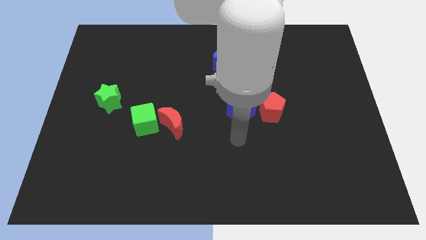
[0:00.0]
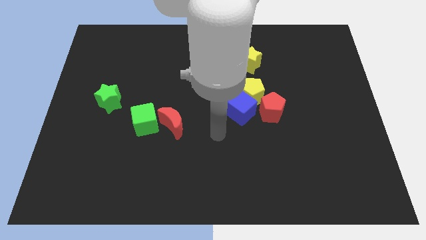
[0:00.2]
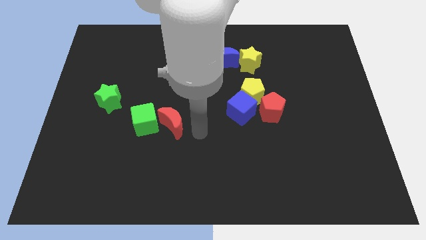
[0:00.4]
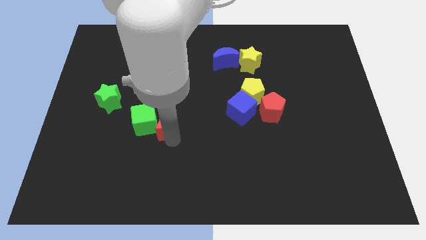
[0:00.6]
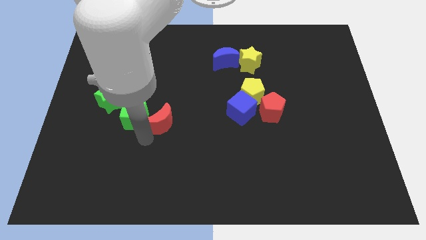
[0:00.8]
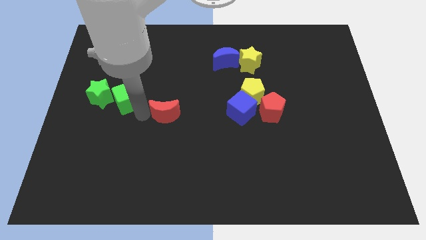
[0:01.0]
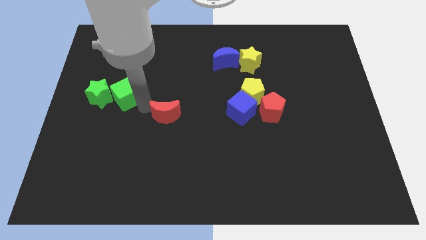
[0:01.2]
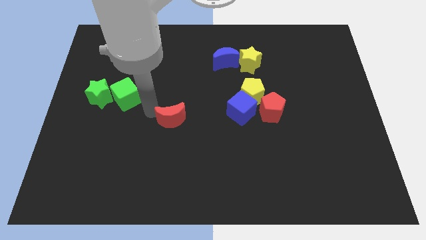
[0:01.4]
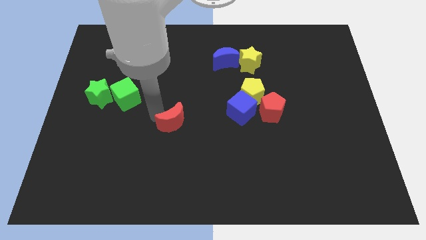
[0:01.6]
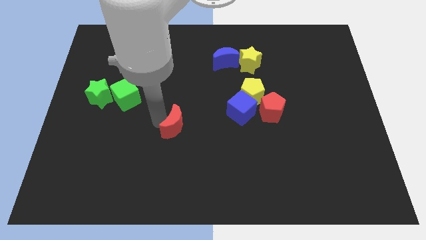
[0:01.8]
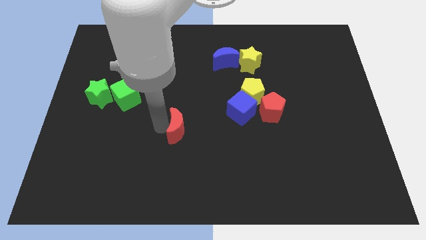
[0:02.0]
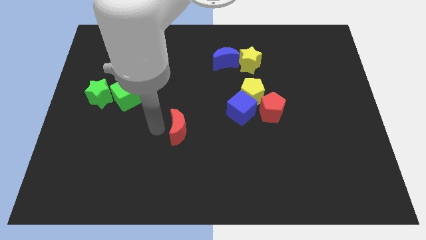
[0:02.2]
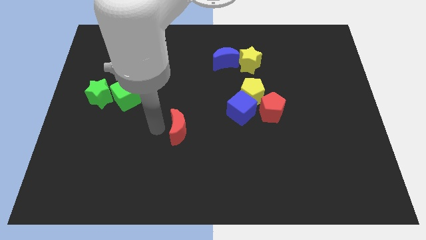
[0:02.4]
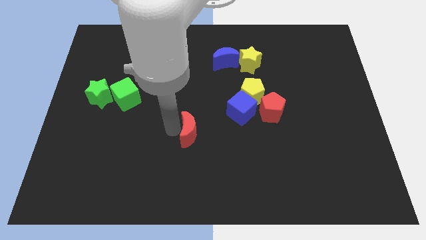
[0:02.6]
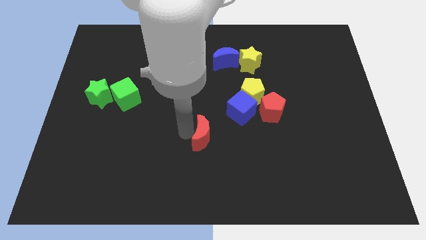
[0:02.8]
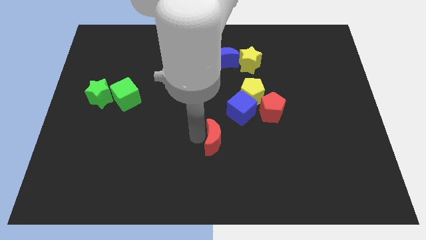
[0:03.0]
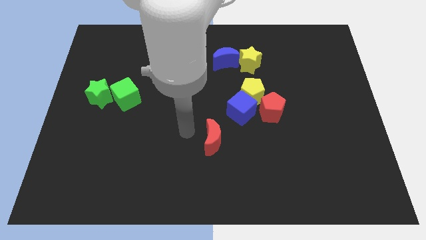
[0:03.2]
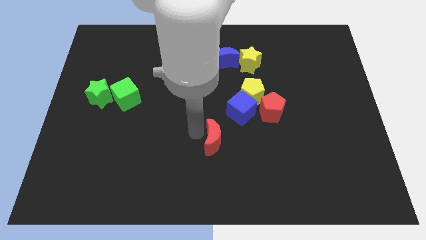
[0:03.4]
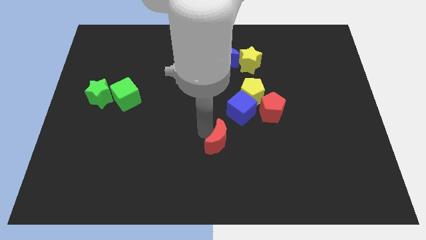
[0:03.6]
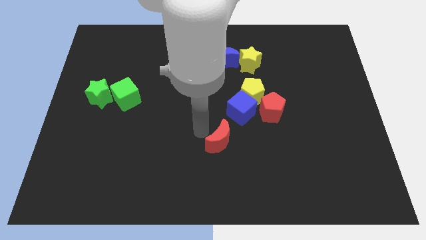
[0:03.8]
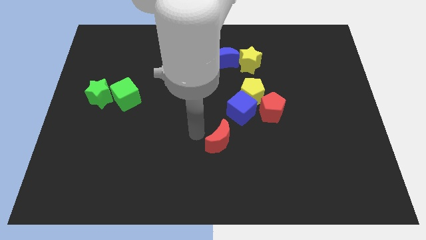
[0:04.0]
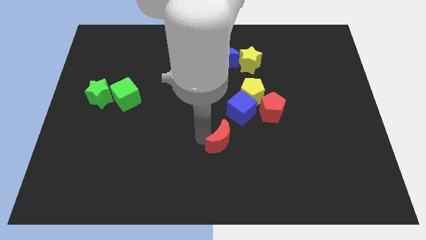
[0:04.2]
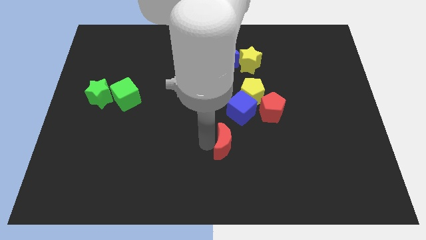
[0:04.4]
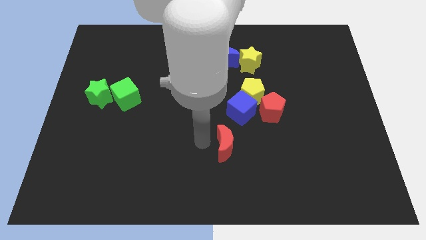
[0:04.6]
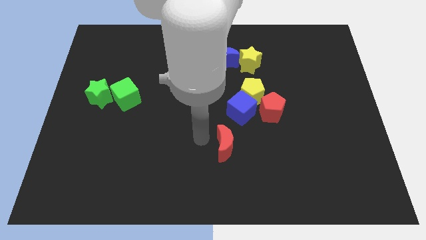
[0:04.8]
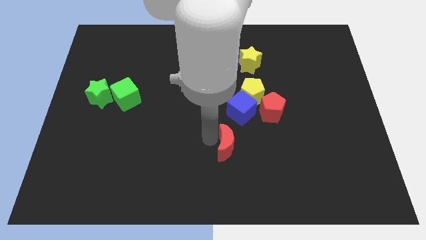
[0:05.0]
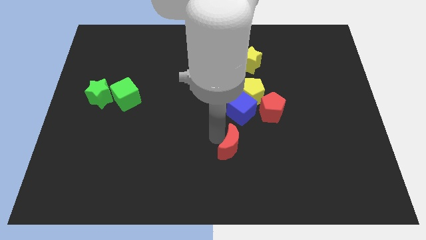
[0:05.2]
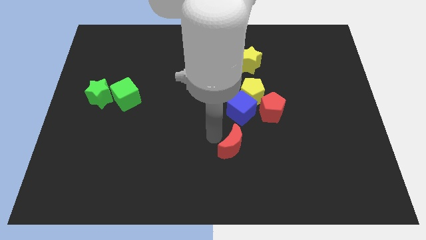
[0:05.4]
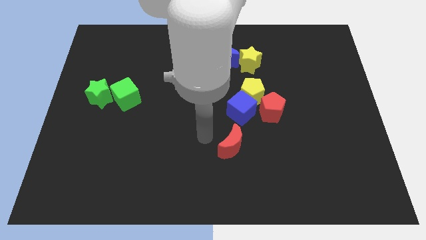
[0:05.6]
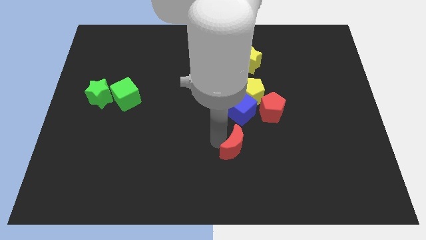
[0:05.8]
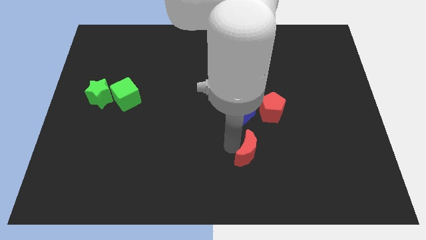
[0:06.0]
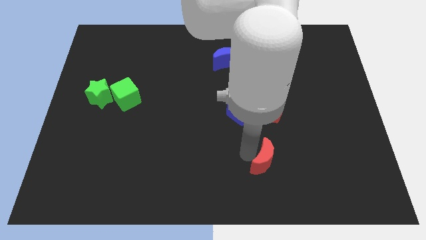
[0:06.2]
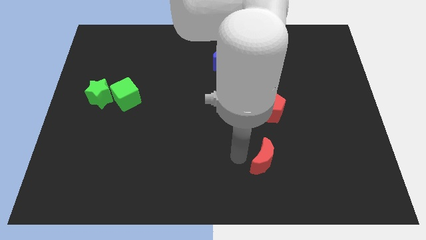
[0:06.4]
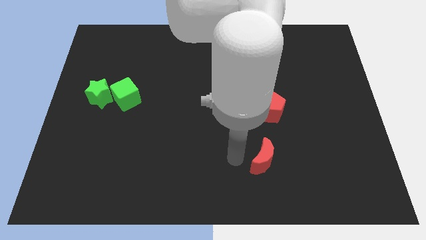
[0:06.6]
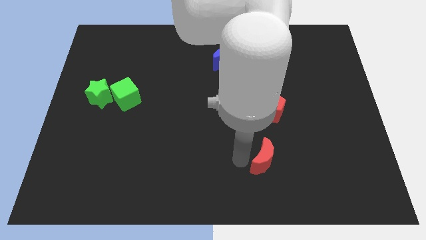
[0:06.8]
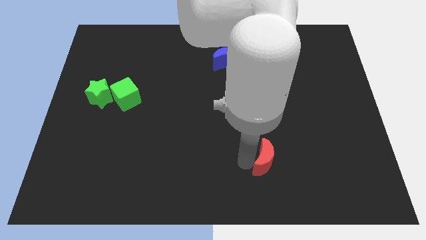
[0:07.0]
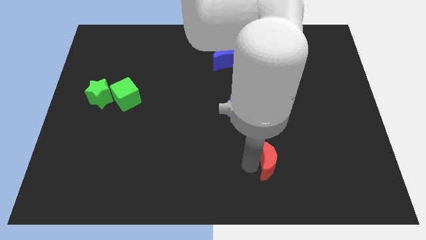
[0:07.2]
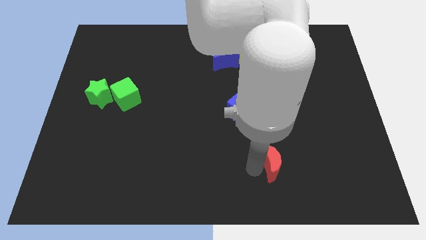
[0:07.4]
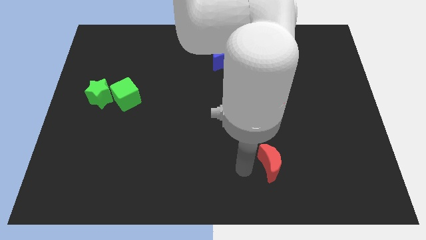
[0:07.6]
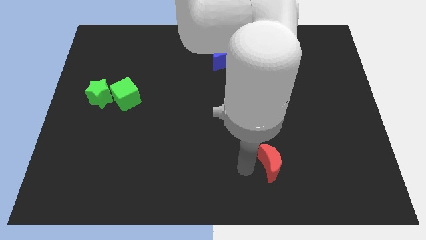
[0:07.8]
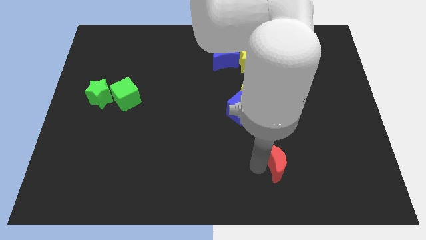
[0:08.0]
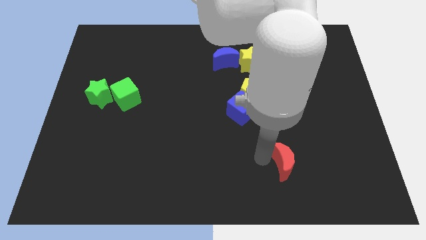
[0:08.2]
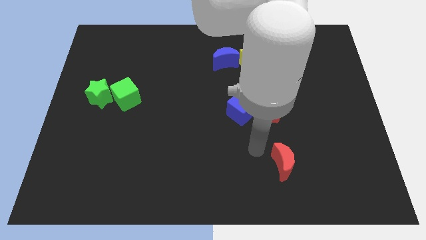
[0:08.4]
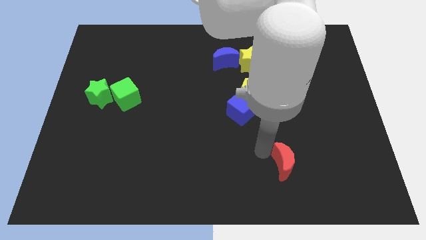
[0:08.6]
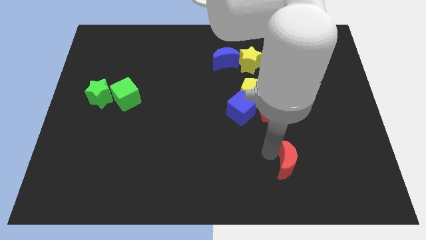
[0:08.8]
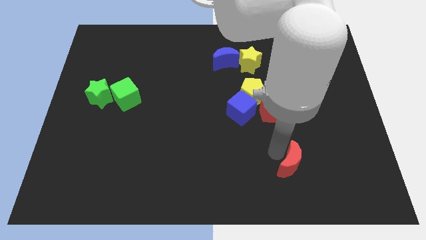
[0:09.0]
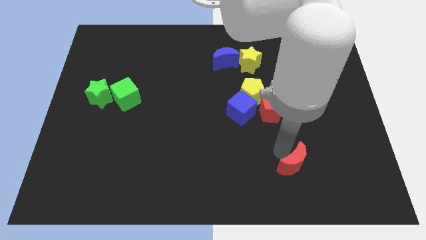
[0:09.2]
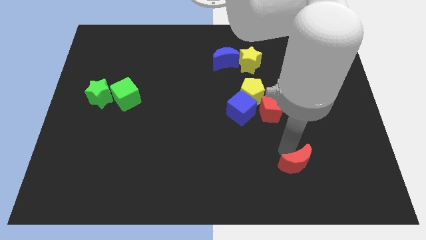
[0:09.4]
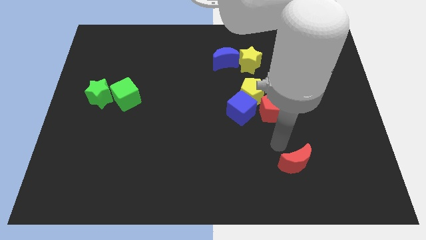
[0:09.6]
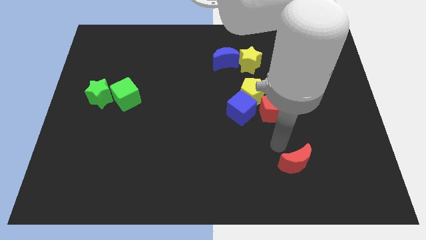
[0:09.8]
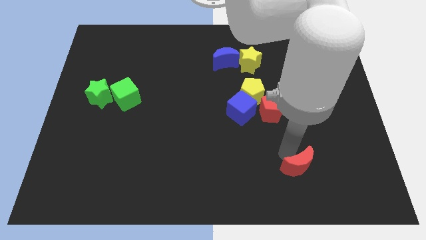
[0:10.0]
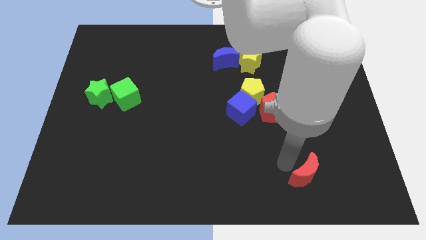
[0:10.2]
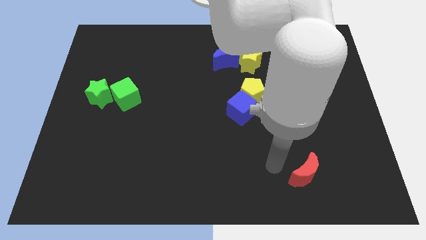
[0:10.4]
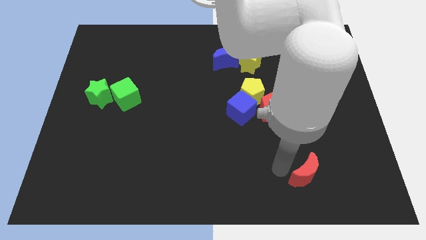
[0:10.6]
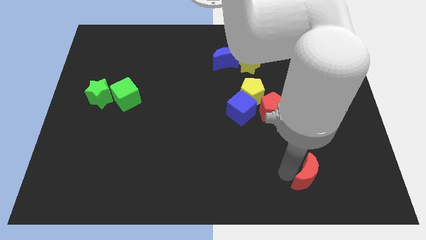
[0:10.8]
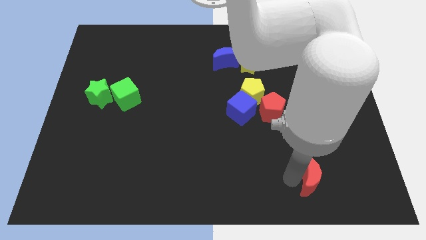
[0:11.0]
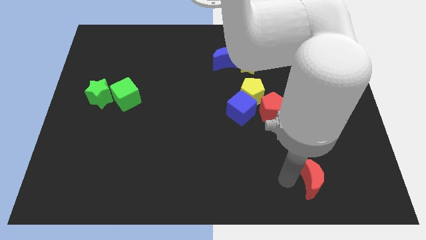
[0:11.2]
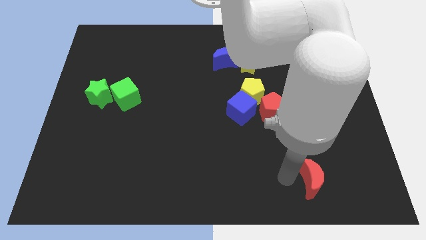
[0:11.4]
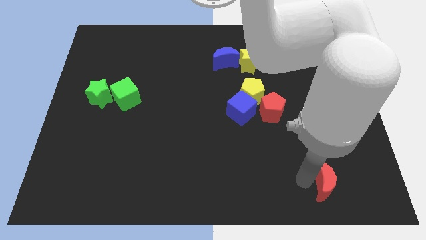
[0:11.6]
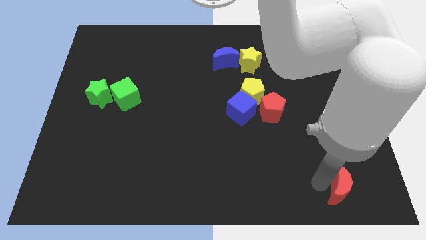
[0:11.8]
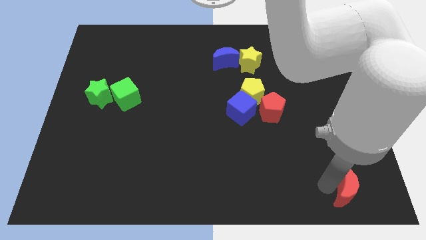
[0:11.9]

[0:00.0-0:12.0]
push the red moon to the bottom right corner
